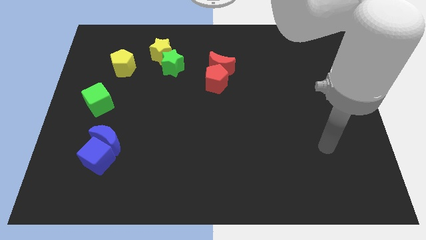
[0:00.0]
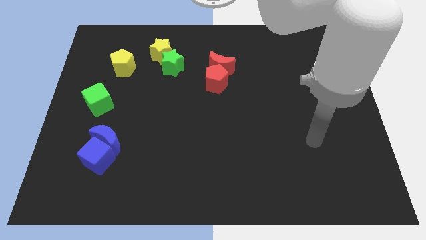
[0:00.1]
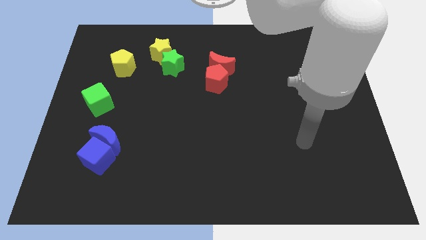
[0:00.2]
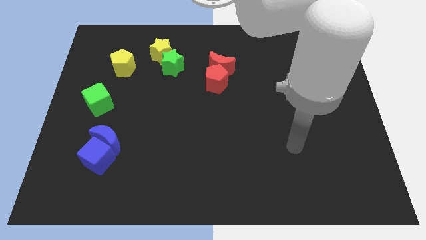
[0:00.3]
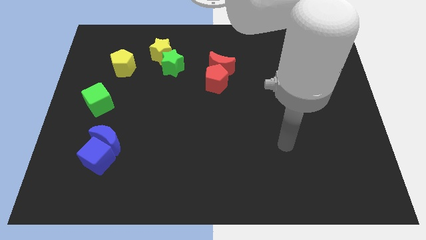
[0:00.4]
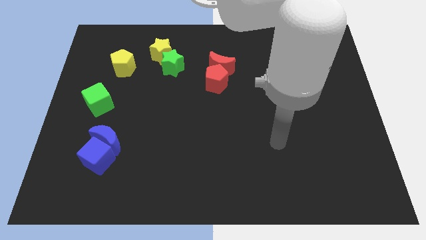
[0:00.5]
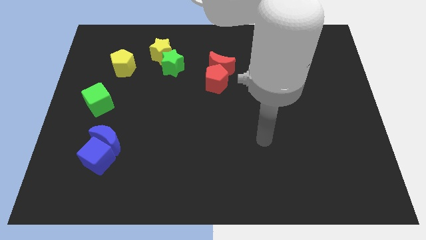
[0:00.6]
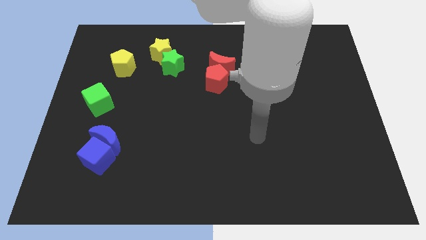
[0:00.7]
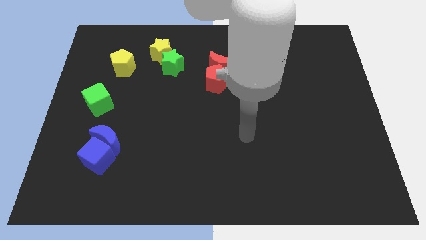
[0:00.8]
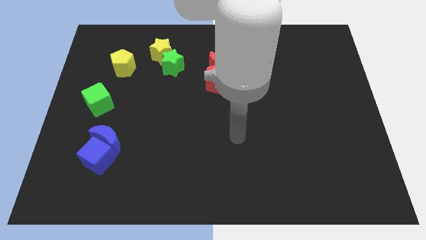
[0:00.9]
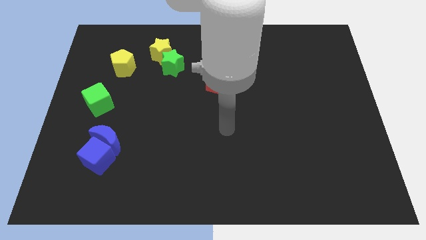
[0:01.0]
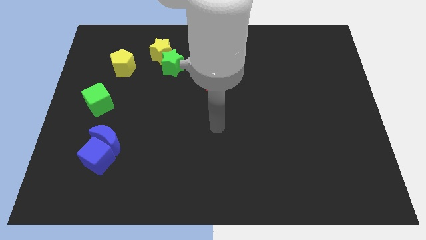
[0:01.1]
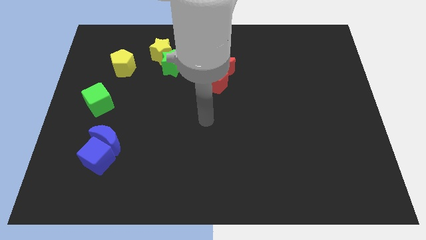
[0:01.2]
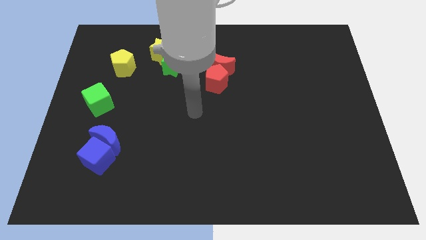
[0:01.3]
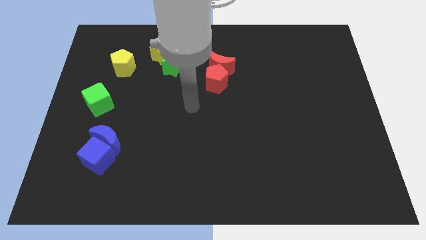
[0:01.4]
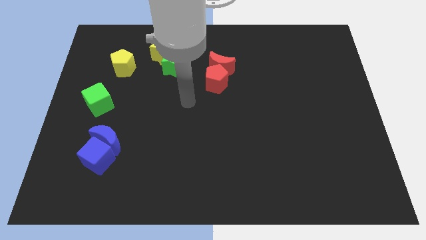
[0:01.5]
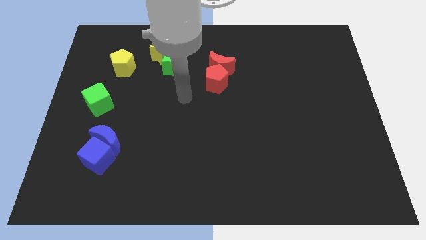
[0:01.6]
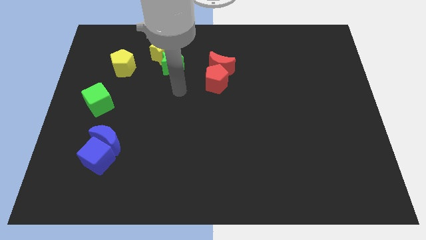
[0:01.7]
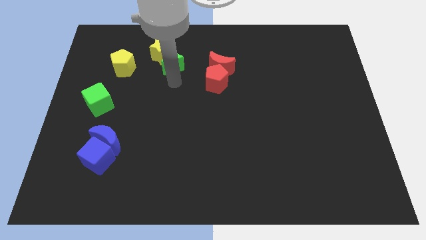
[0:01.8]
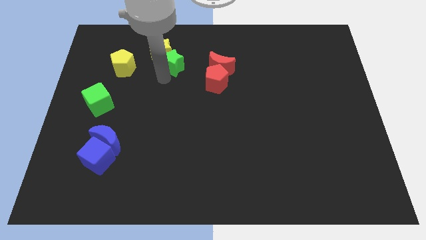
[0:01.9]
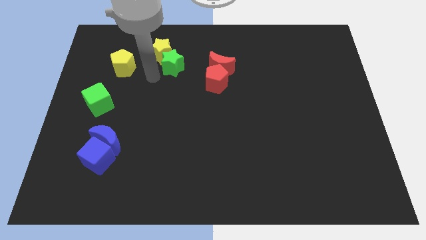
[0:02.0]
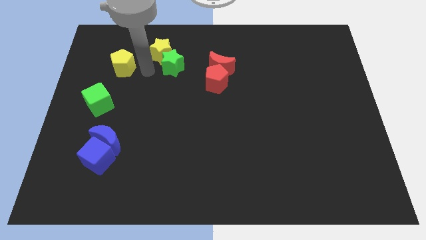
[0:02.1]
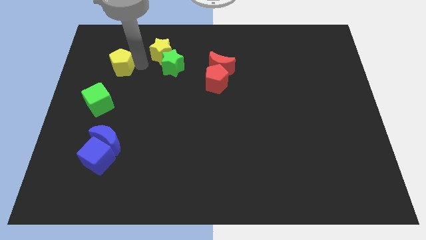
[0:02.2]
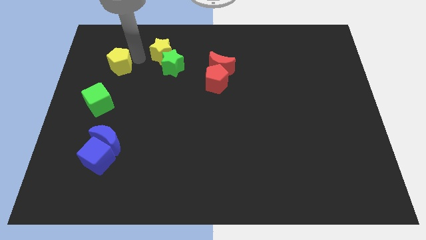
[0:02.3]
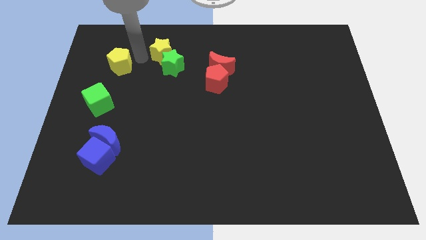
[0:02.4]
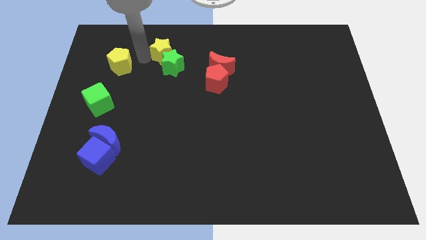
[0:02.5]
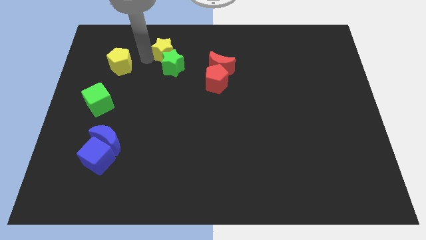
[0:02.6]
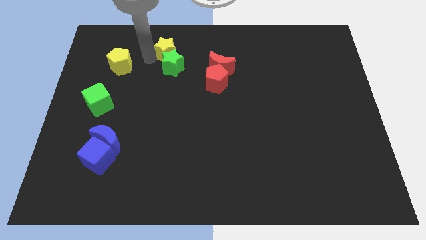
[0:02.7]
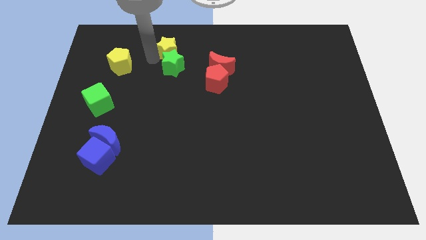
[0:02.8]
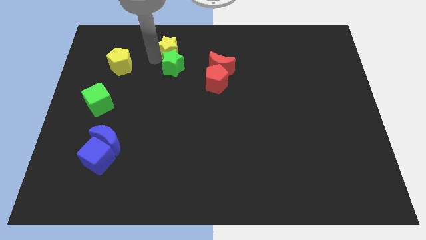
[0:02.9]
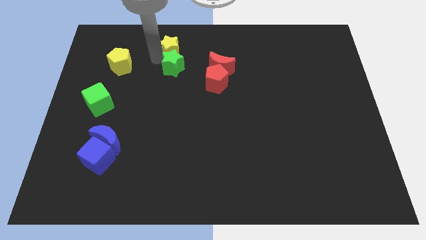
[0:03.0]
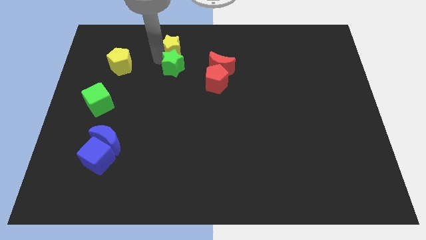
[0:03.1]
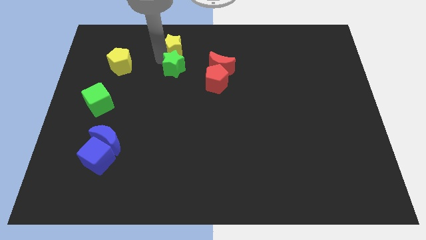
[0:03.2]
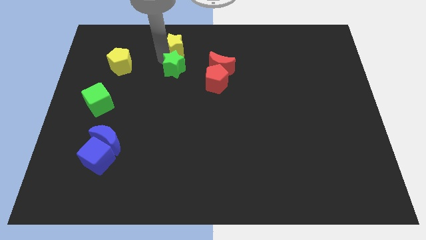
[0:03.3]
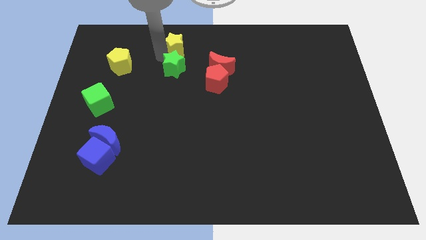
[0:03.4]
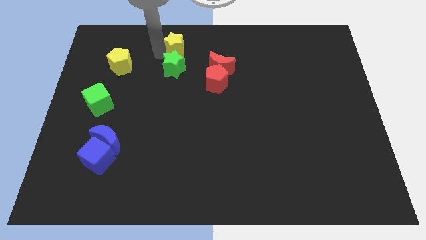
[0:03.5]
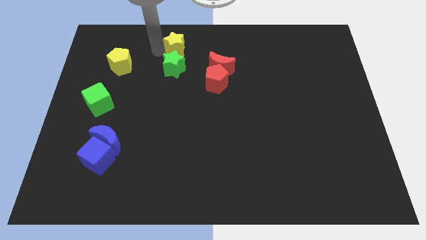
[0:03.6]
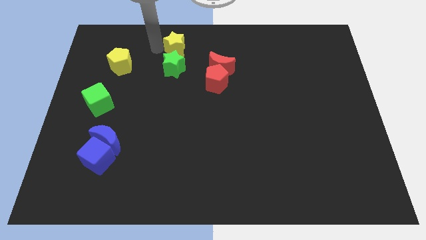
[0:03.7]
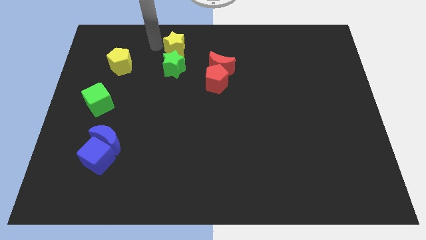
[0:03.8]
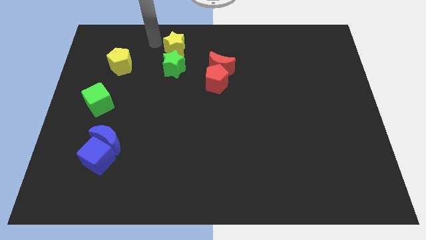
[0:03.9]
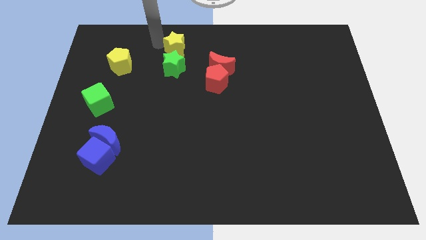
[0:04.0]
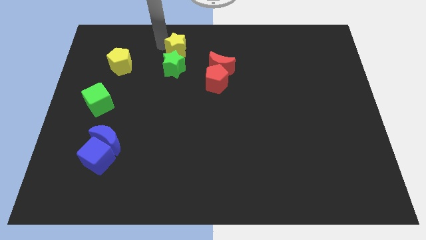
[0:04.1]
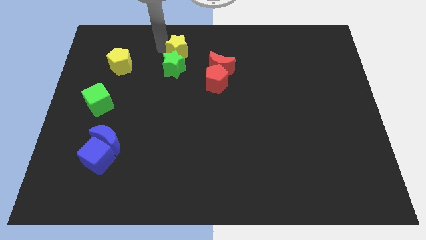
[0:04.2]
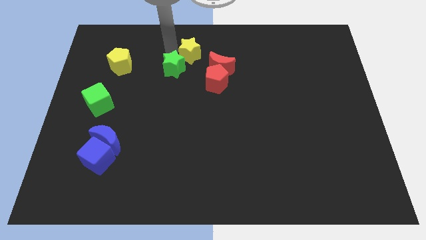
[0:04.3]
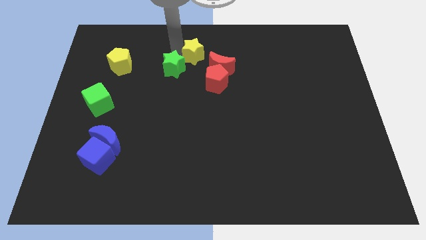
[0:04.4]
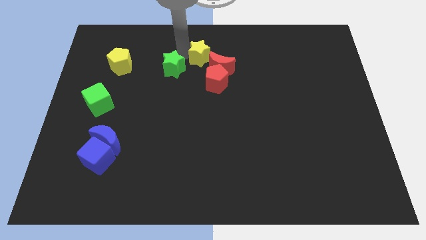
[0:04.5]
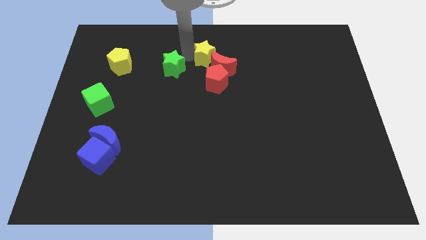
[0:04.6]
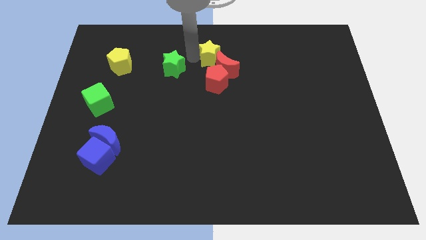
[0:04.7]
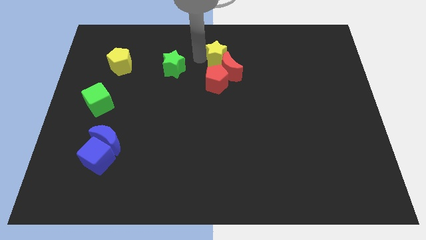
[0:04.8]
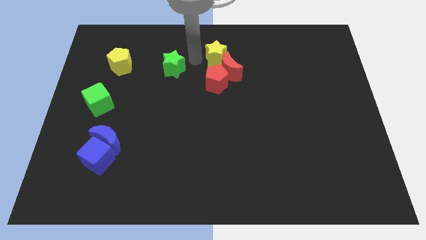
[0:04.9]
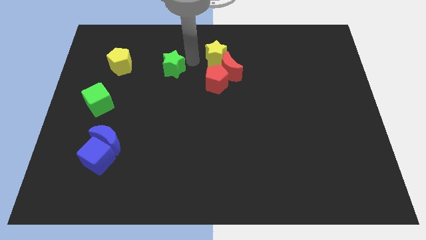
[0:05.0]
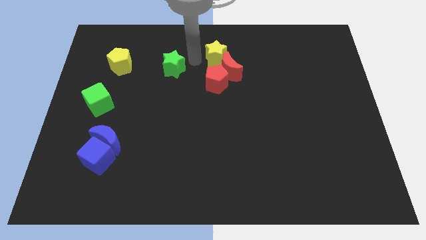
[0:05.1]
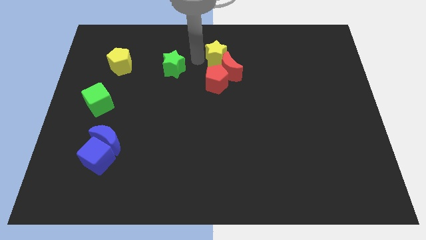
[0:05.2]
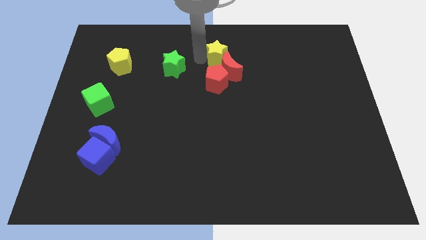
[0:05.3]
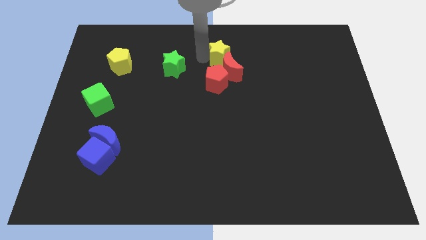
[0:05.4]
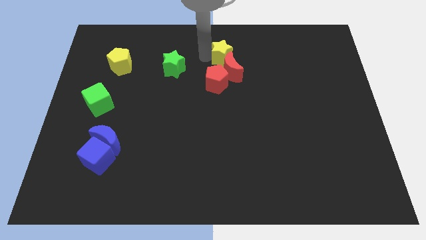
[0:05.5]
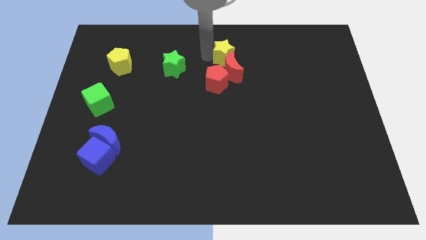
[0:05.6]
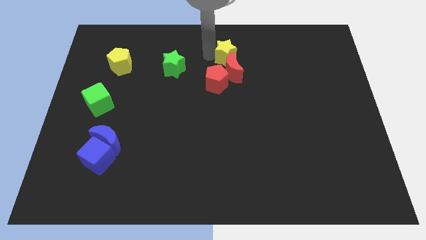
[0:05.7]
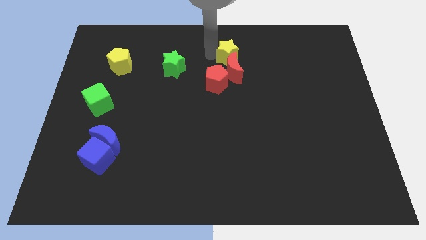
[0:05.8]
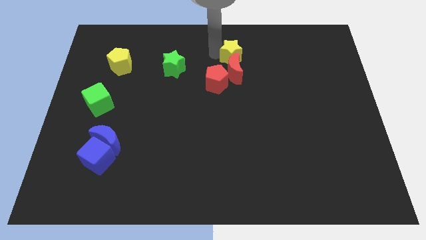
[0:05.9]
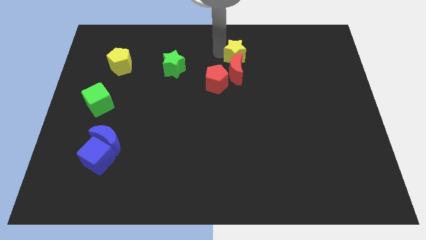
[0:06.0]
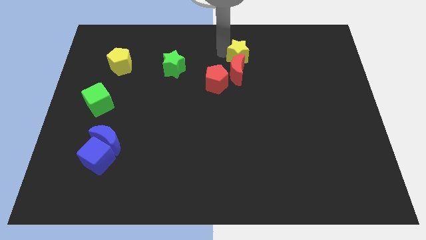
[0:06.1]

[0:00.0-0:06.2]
push the yellow star right

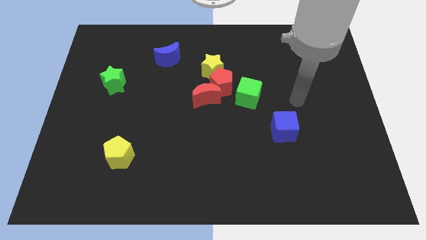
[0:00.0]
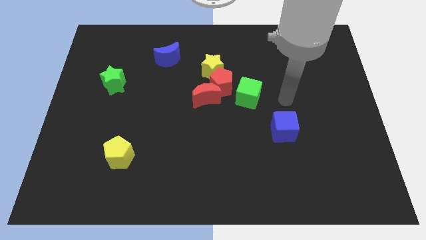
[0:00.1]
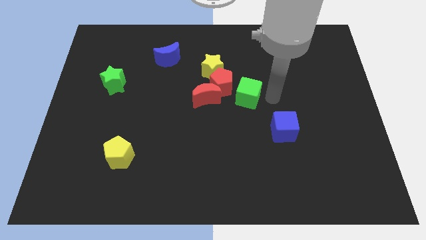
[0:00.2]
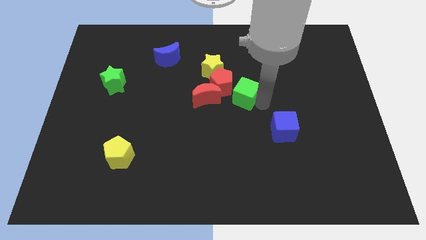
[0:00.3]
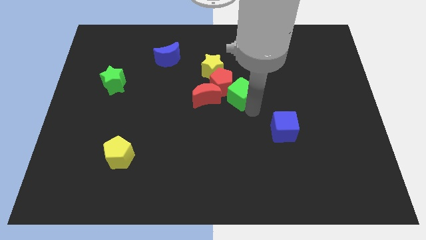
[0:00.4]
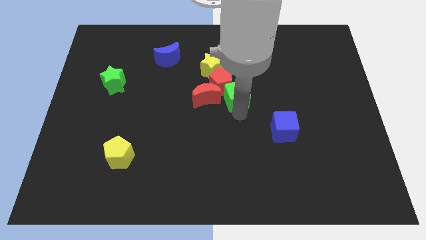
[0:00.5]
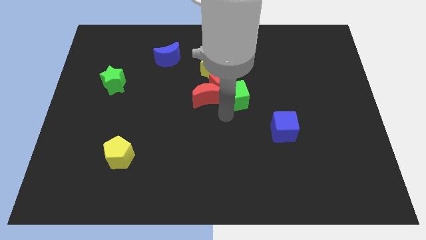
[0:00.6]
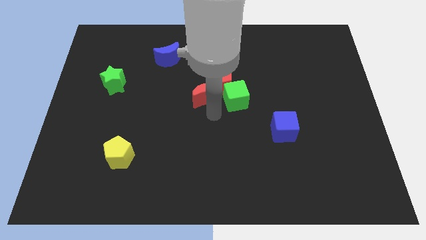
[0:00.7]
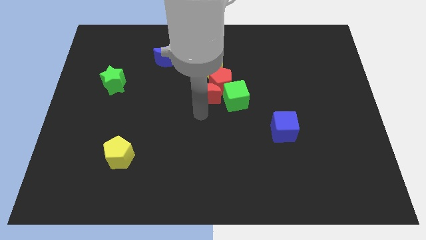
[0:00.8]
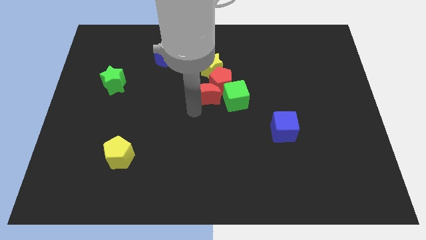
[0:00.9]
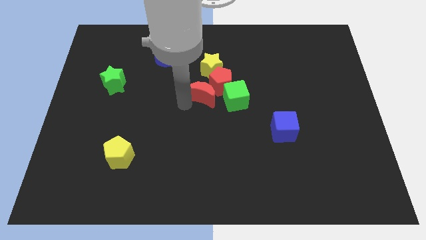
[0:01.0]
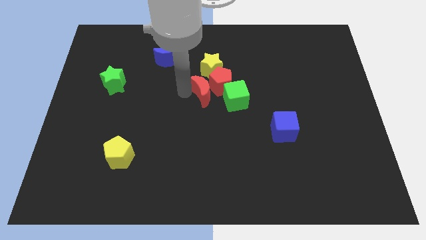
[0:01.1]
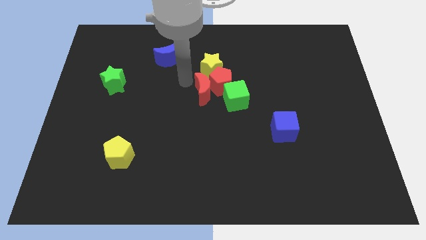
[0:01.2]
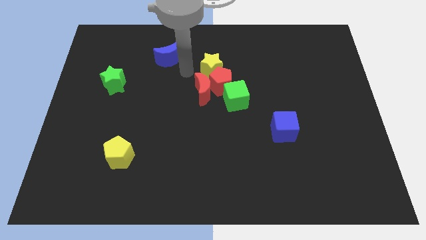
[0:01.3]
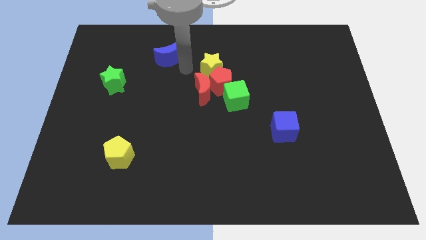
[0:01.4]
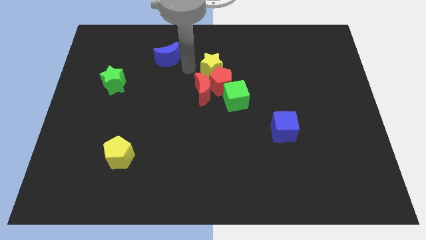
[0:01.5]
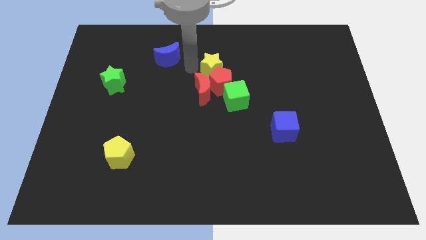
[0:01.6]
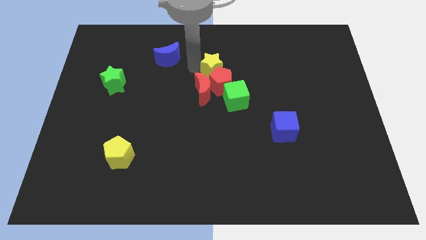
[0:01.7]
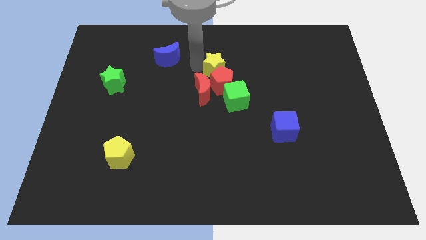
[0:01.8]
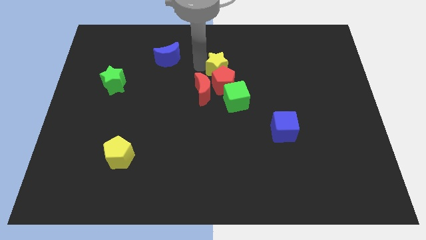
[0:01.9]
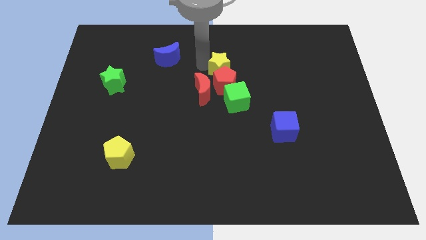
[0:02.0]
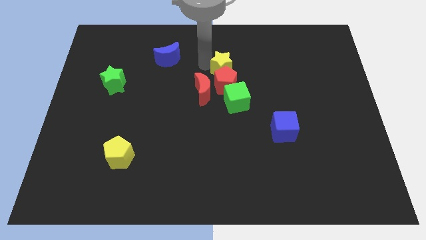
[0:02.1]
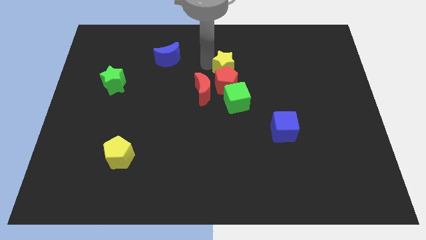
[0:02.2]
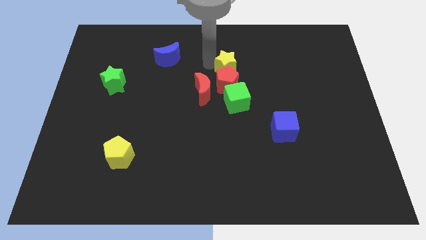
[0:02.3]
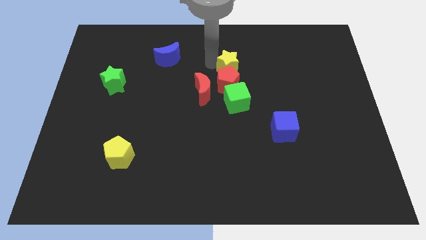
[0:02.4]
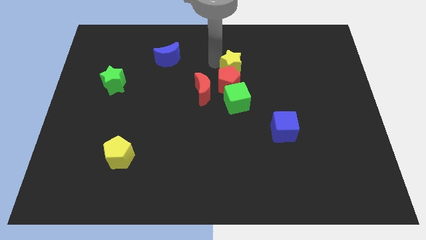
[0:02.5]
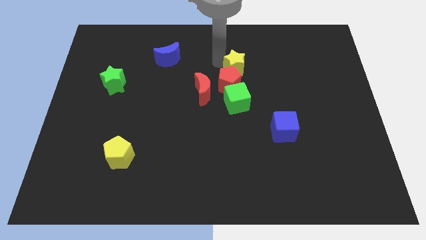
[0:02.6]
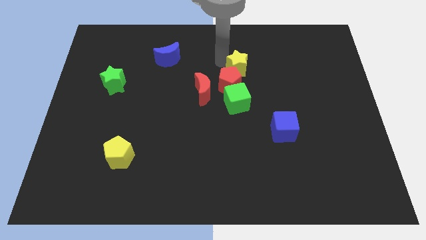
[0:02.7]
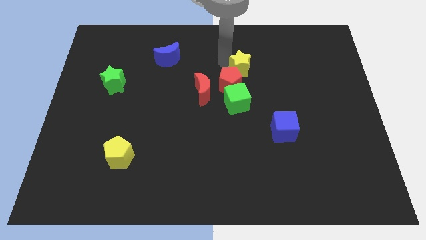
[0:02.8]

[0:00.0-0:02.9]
slide the yellow star a little bit to the right
